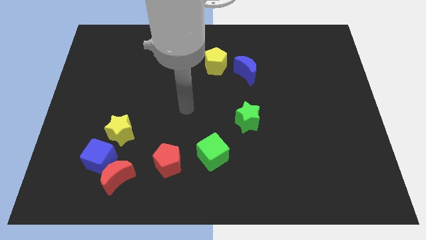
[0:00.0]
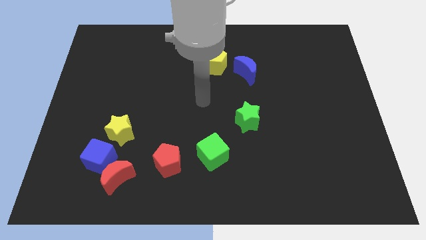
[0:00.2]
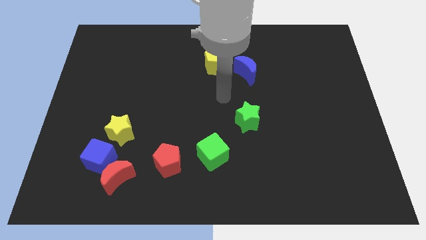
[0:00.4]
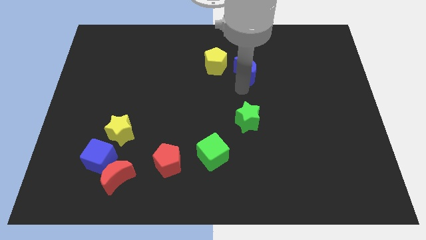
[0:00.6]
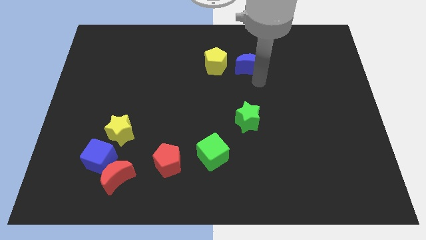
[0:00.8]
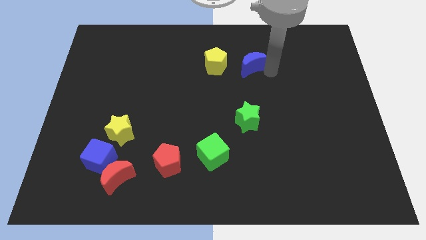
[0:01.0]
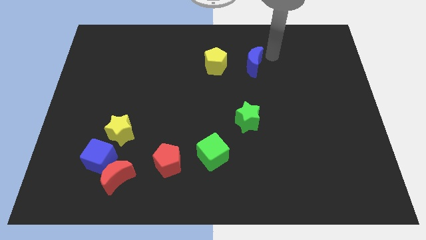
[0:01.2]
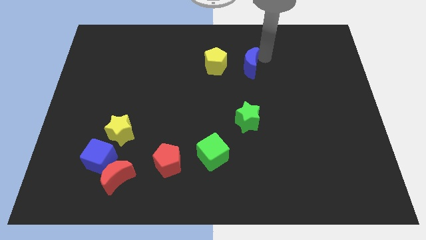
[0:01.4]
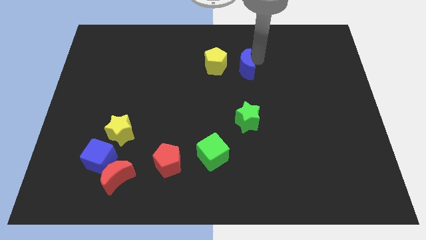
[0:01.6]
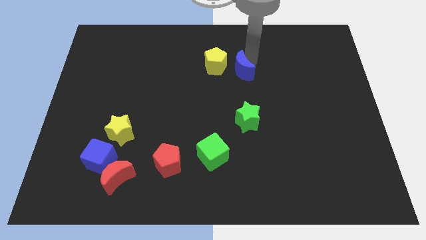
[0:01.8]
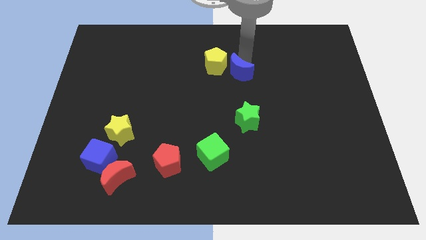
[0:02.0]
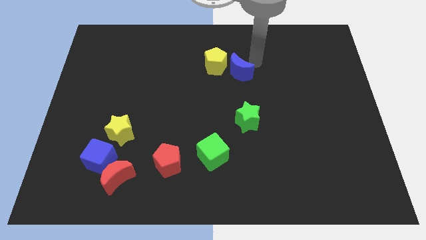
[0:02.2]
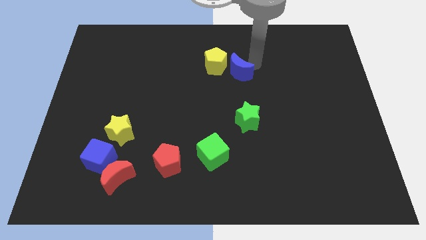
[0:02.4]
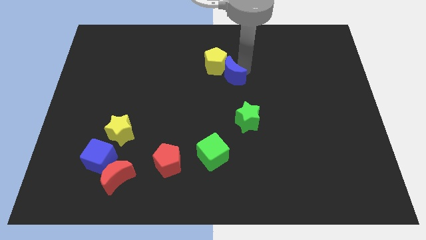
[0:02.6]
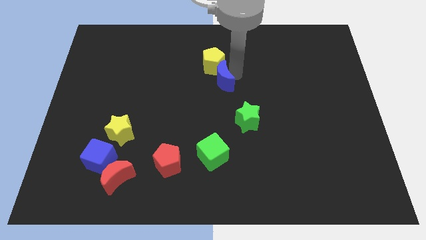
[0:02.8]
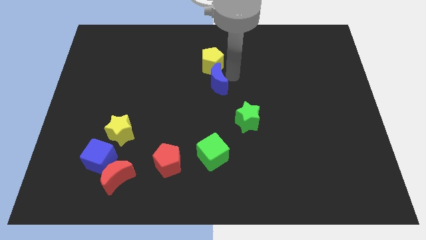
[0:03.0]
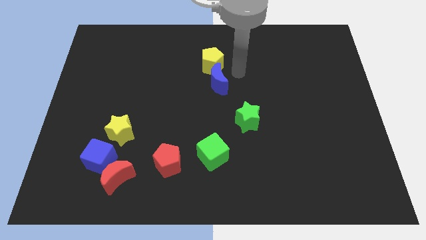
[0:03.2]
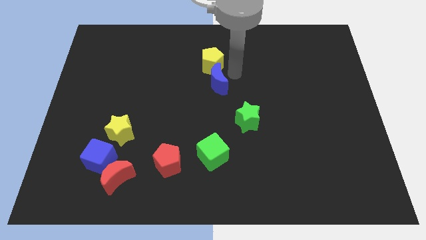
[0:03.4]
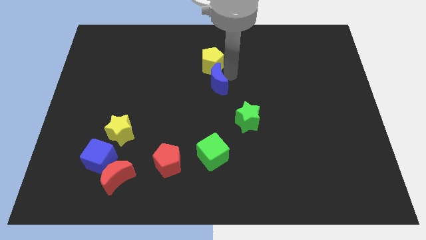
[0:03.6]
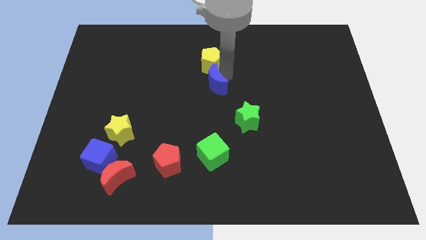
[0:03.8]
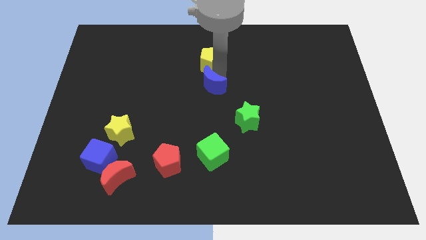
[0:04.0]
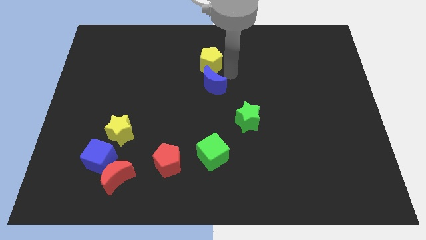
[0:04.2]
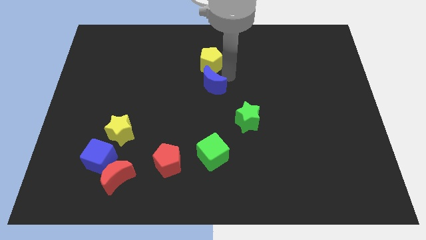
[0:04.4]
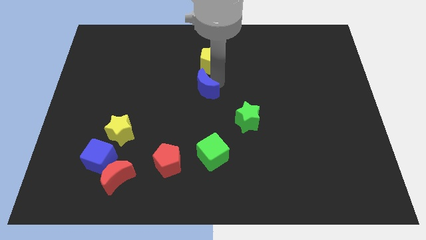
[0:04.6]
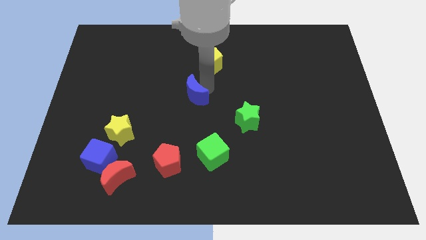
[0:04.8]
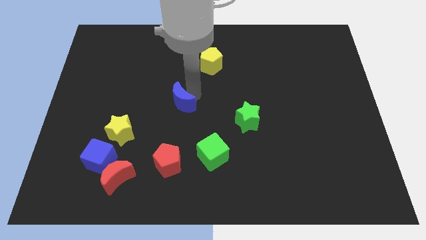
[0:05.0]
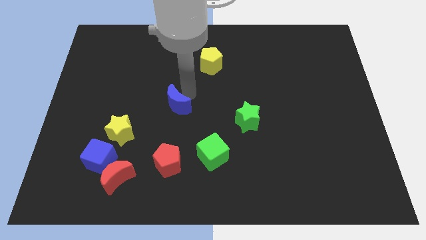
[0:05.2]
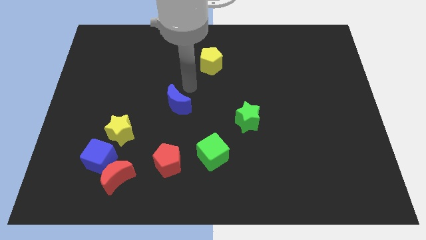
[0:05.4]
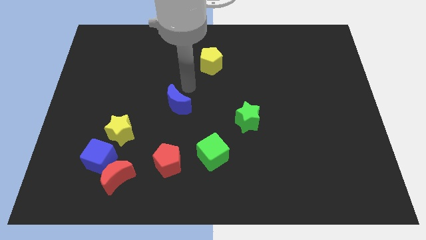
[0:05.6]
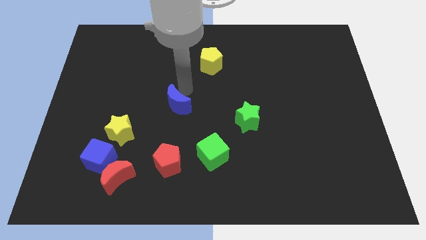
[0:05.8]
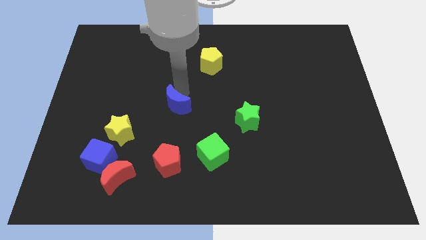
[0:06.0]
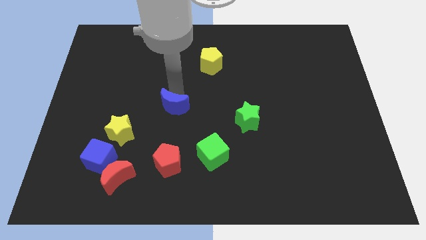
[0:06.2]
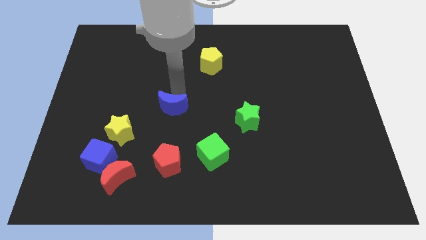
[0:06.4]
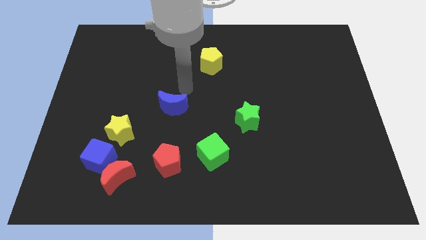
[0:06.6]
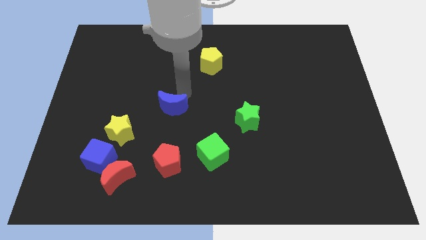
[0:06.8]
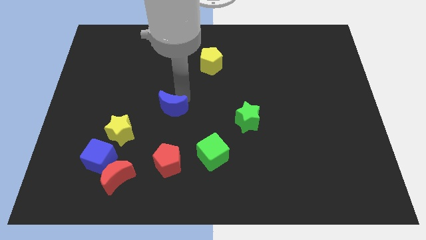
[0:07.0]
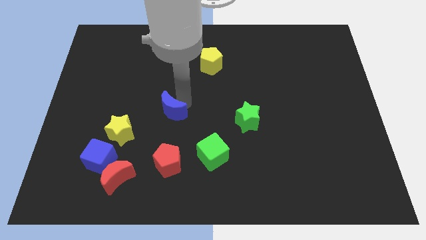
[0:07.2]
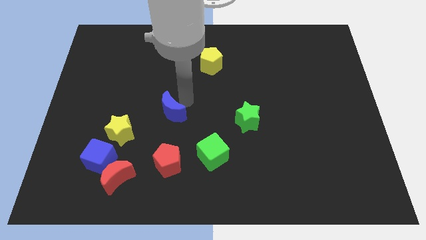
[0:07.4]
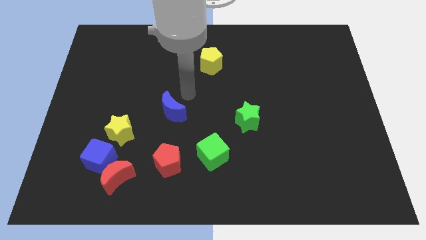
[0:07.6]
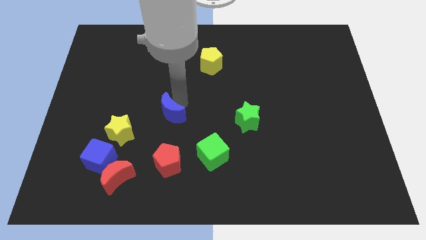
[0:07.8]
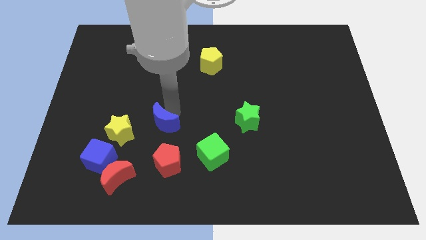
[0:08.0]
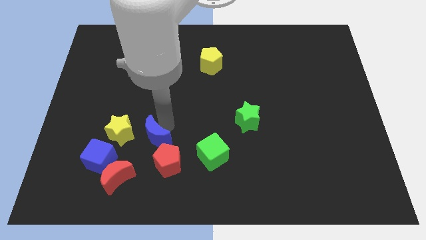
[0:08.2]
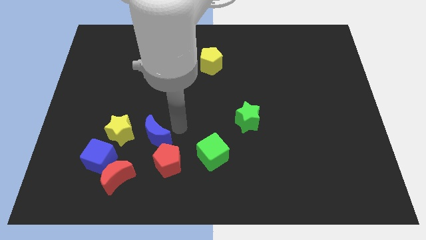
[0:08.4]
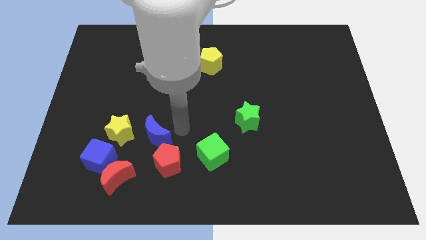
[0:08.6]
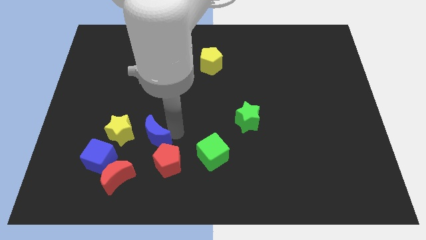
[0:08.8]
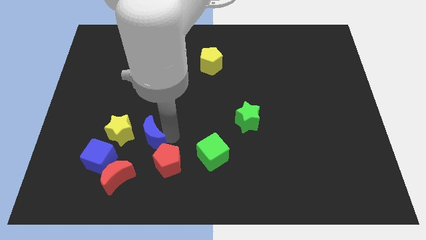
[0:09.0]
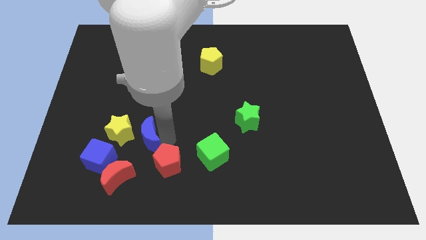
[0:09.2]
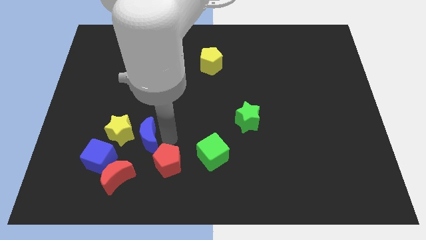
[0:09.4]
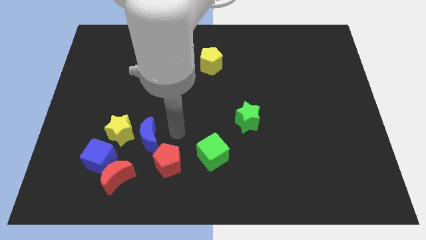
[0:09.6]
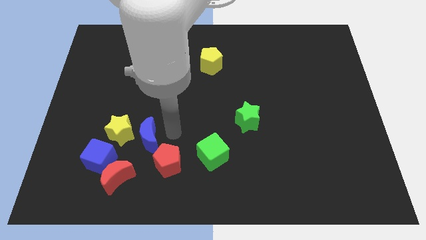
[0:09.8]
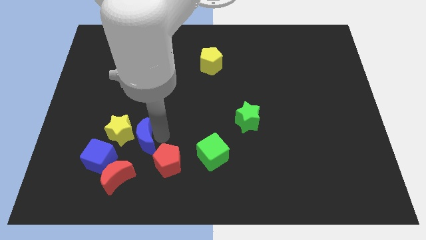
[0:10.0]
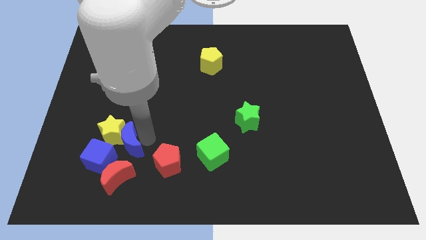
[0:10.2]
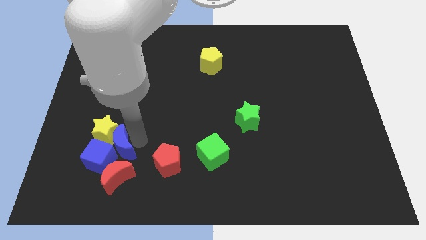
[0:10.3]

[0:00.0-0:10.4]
push the blue moon to the blue cube

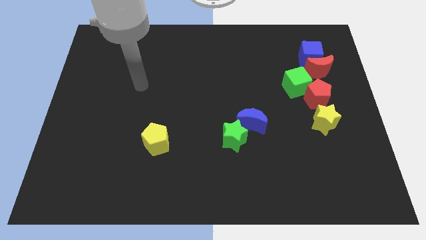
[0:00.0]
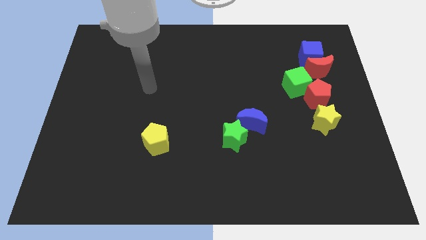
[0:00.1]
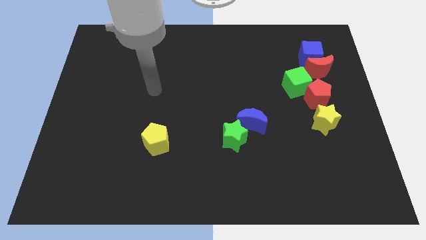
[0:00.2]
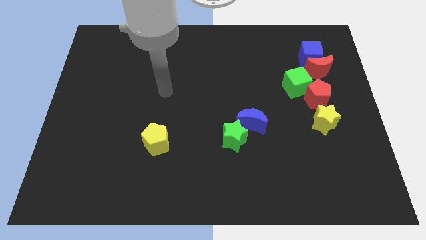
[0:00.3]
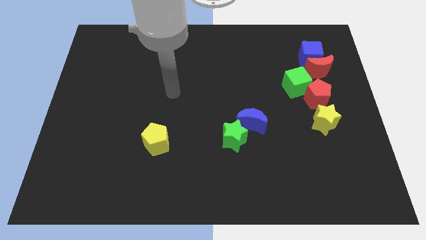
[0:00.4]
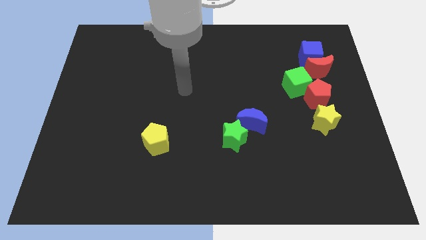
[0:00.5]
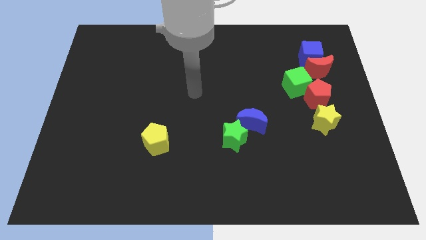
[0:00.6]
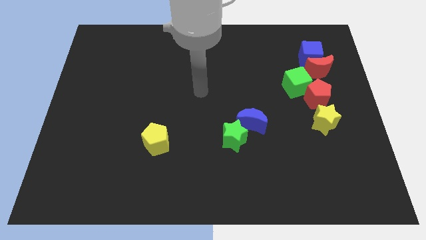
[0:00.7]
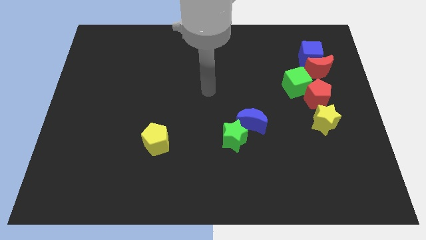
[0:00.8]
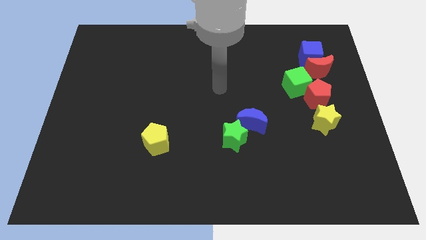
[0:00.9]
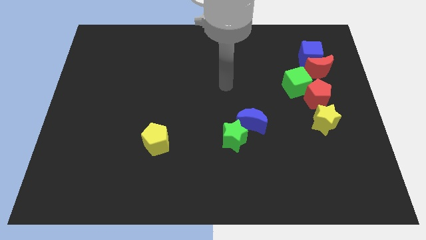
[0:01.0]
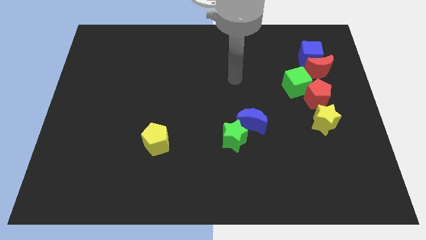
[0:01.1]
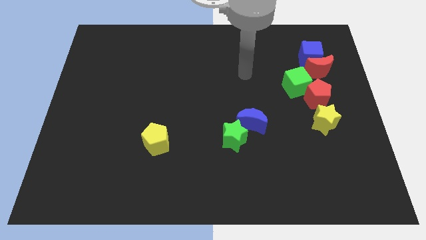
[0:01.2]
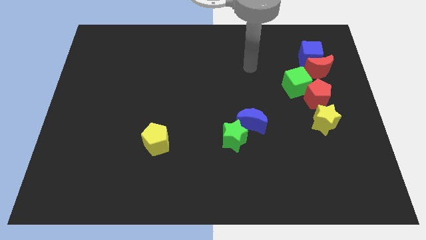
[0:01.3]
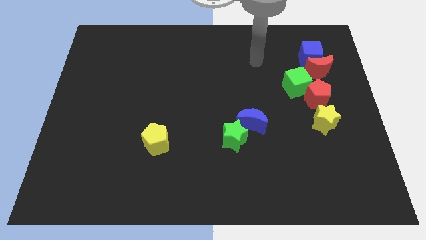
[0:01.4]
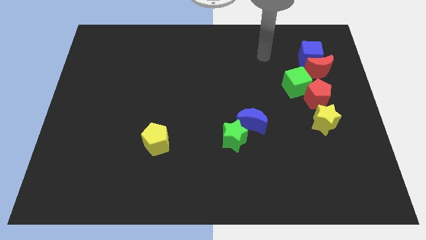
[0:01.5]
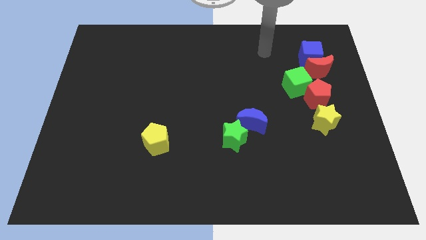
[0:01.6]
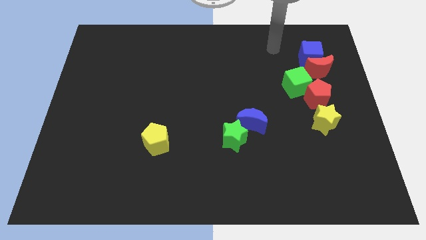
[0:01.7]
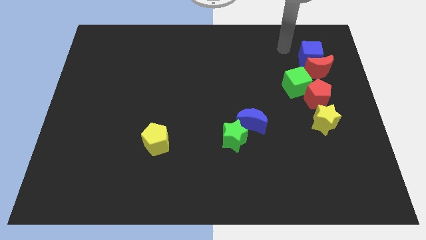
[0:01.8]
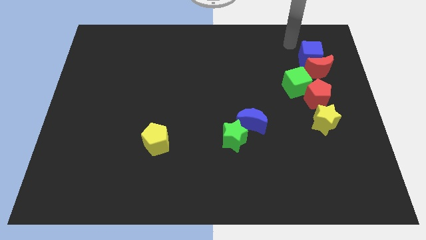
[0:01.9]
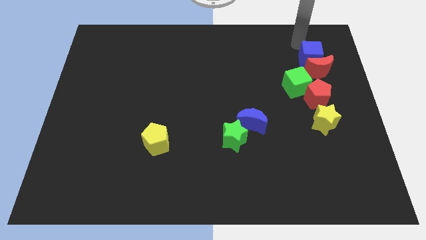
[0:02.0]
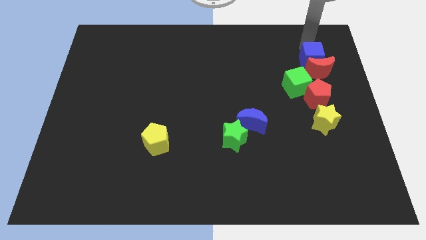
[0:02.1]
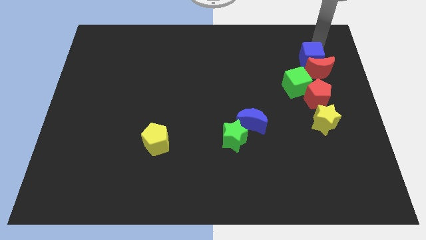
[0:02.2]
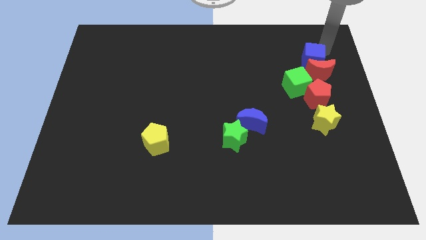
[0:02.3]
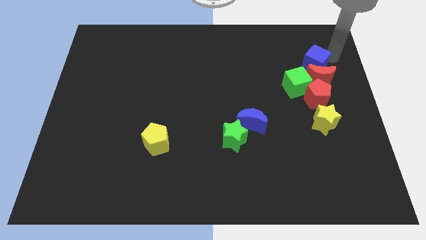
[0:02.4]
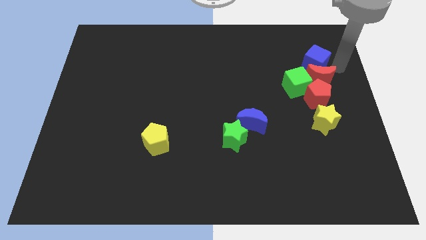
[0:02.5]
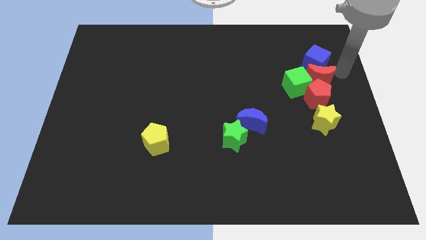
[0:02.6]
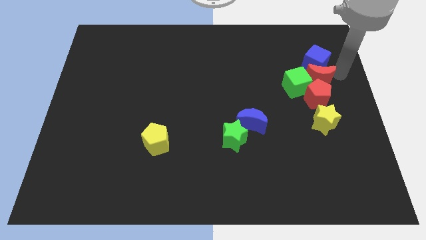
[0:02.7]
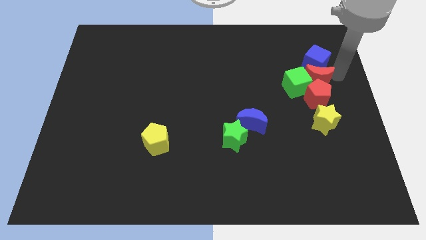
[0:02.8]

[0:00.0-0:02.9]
put the red moon to the green cube
